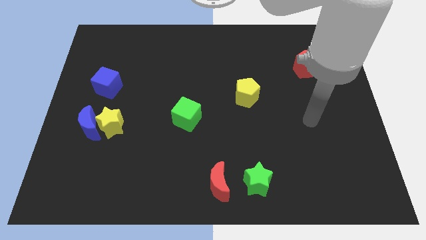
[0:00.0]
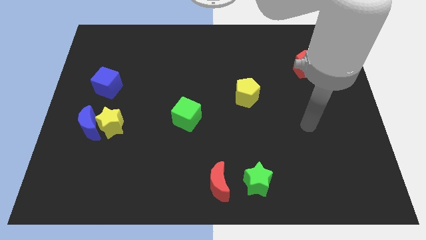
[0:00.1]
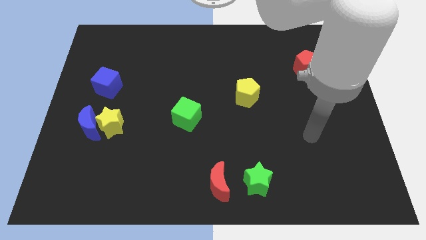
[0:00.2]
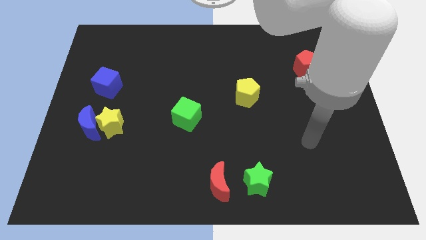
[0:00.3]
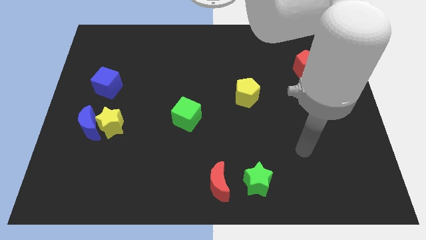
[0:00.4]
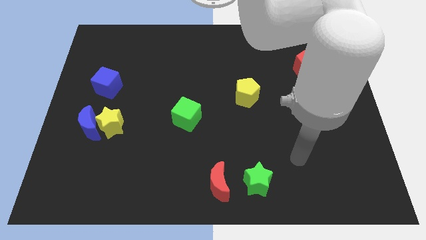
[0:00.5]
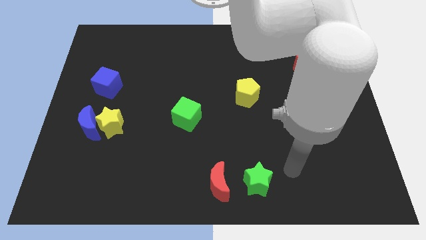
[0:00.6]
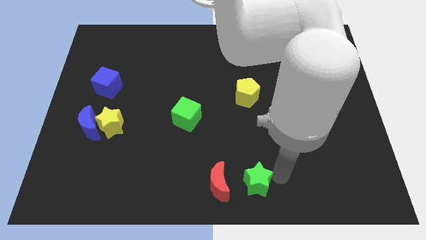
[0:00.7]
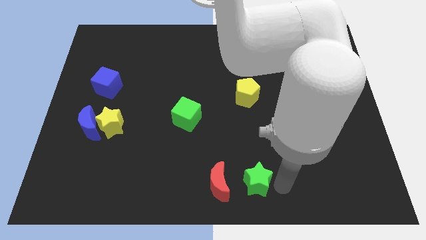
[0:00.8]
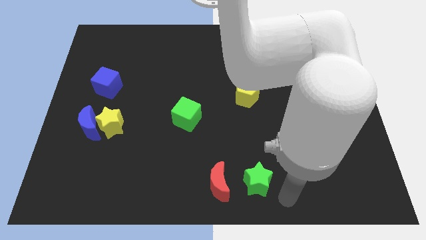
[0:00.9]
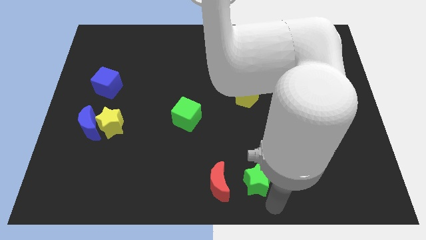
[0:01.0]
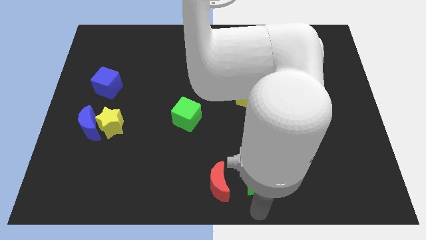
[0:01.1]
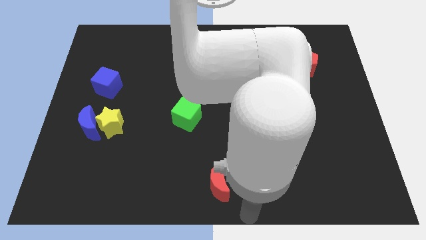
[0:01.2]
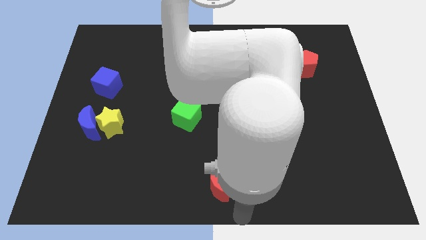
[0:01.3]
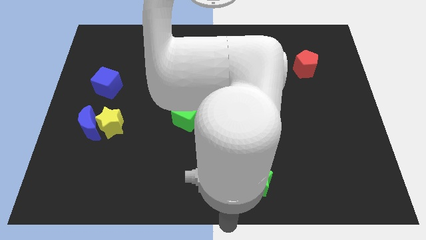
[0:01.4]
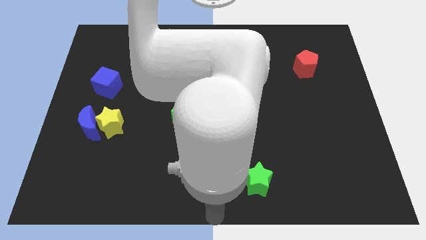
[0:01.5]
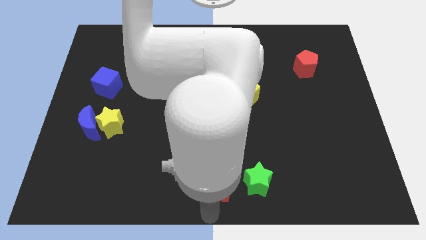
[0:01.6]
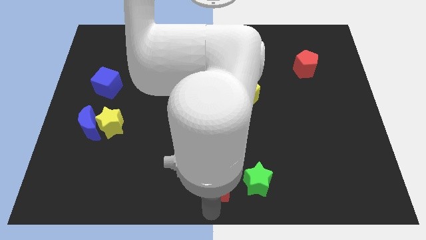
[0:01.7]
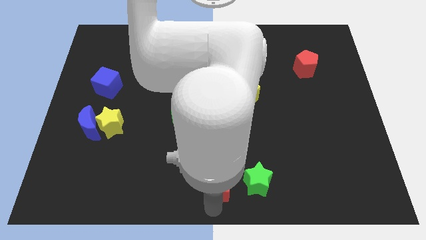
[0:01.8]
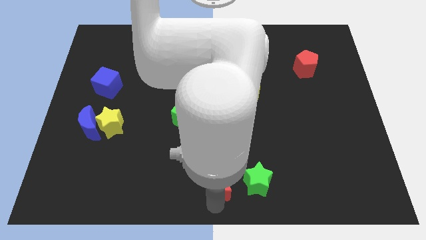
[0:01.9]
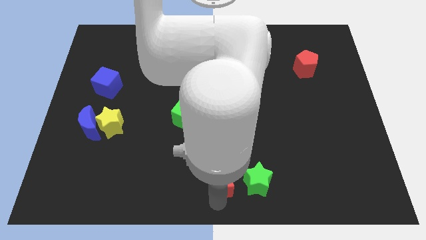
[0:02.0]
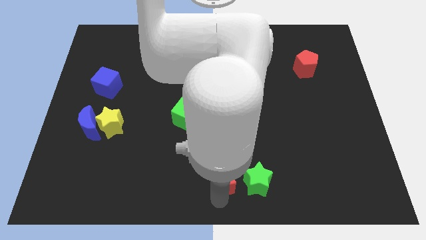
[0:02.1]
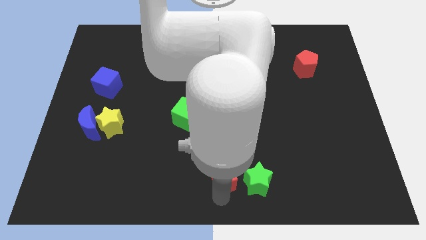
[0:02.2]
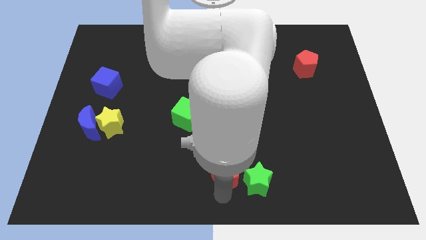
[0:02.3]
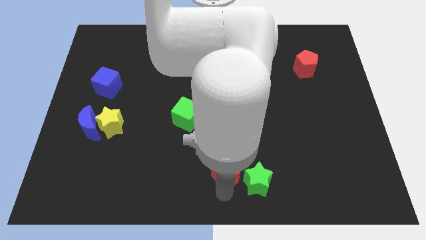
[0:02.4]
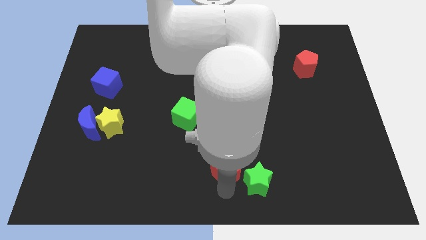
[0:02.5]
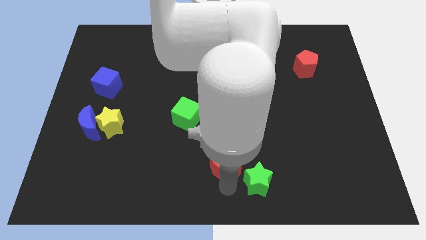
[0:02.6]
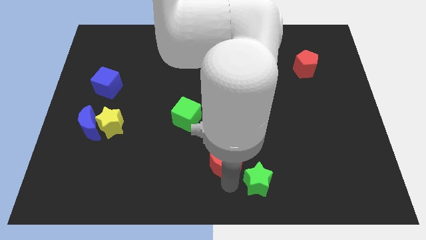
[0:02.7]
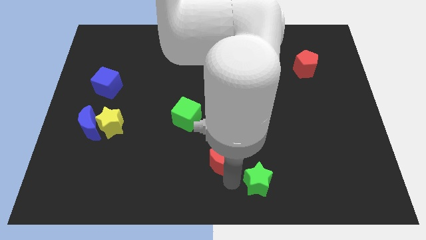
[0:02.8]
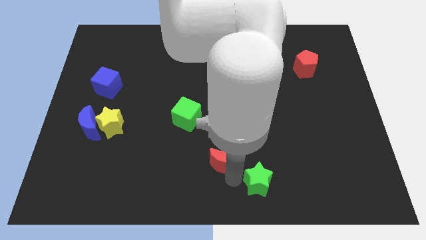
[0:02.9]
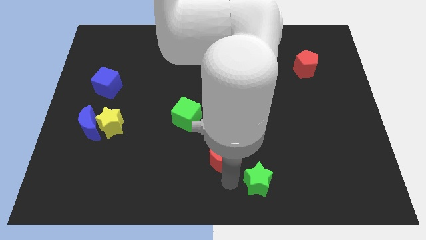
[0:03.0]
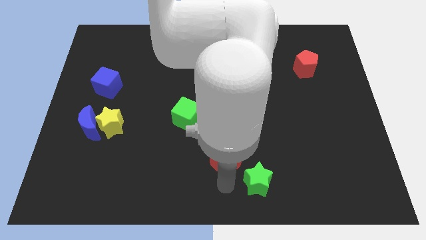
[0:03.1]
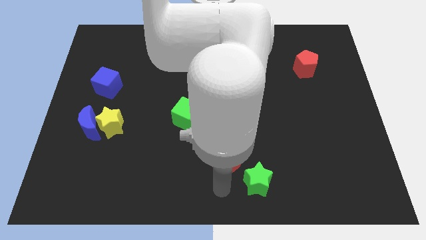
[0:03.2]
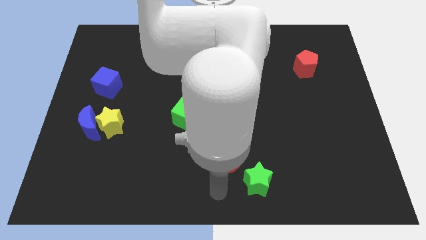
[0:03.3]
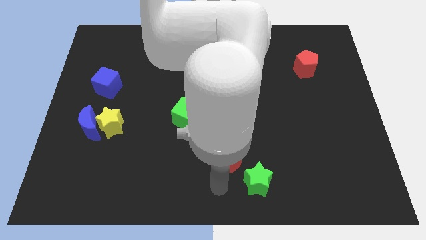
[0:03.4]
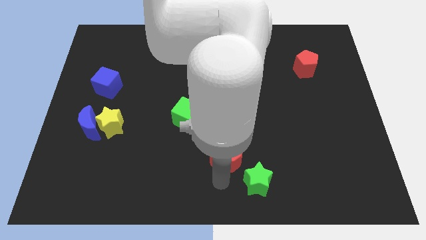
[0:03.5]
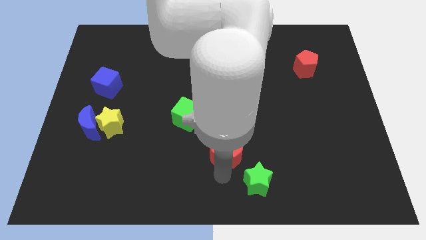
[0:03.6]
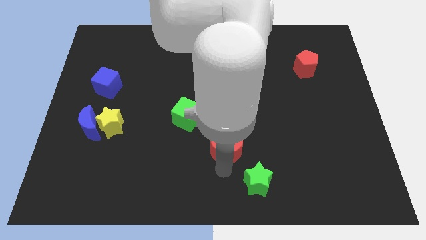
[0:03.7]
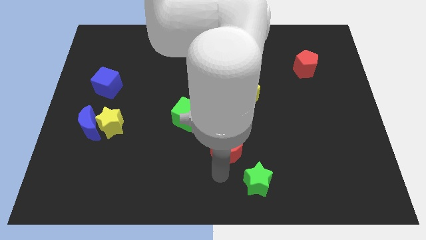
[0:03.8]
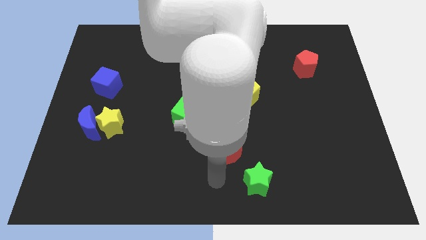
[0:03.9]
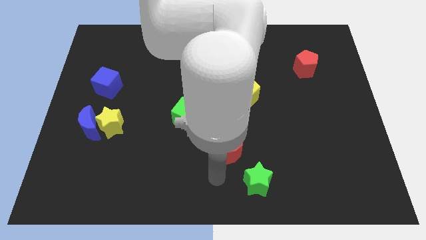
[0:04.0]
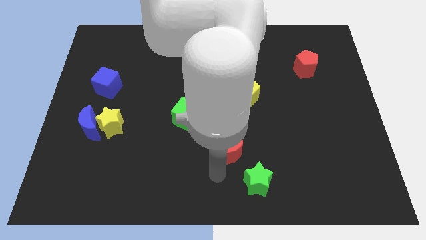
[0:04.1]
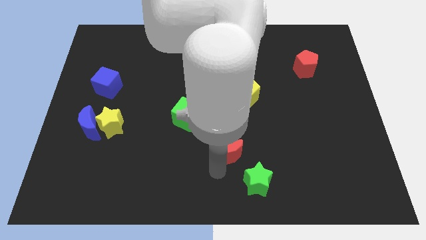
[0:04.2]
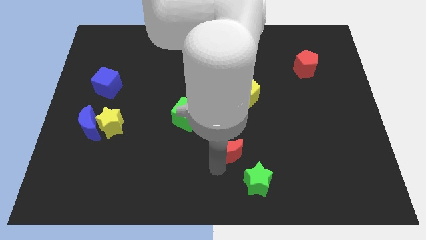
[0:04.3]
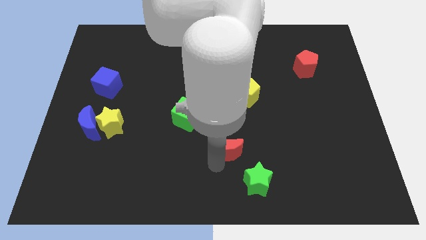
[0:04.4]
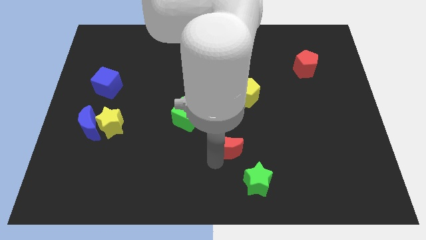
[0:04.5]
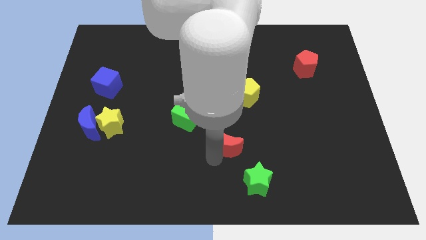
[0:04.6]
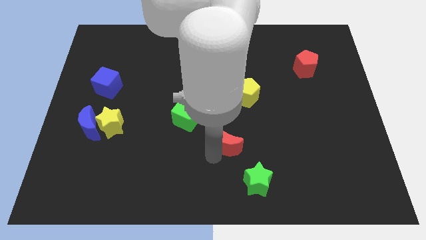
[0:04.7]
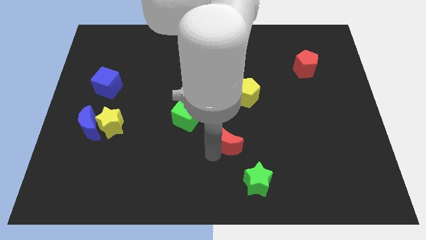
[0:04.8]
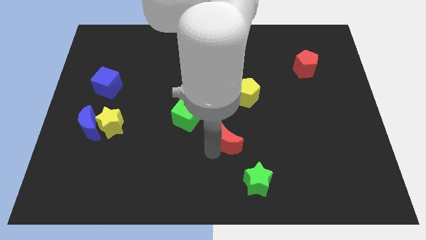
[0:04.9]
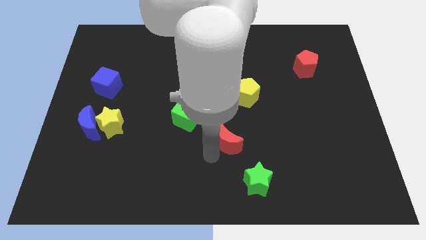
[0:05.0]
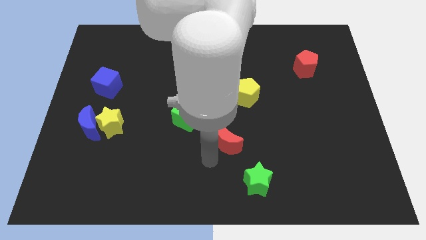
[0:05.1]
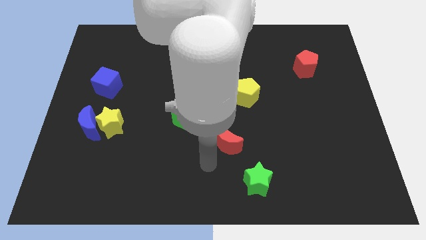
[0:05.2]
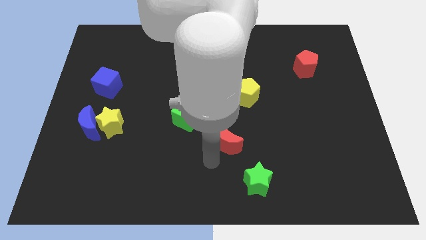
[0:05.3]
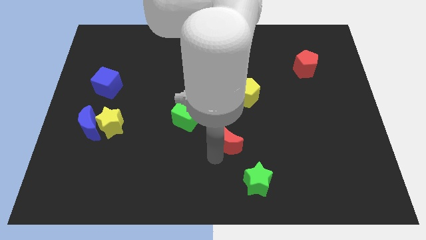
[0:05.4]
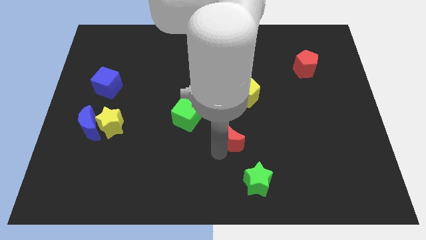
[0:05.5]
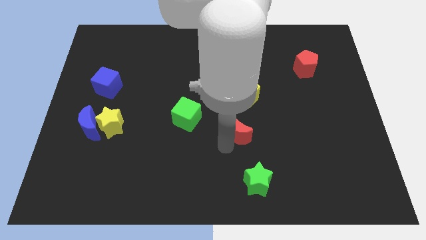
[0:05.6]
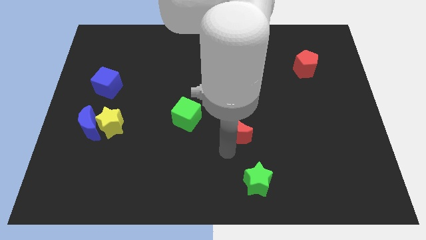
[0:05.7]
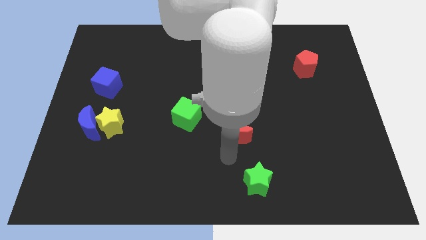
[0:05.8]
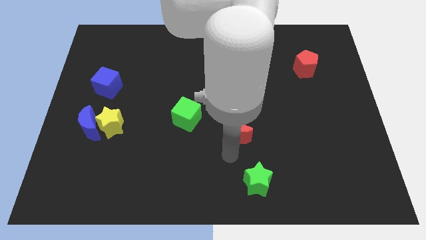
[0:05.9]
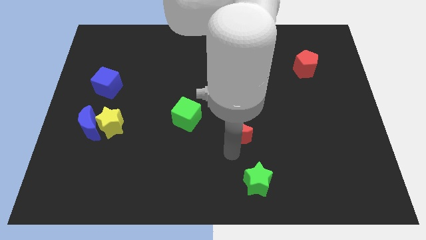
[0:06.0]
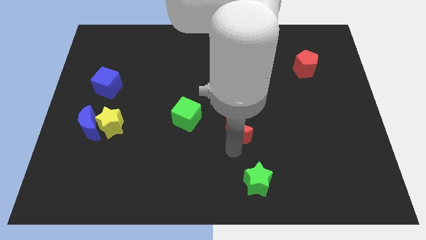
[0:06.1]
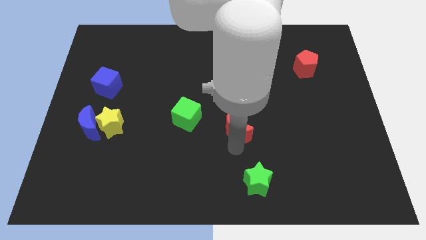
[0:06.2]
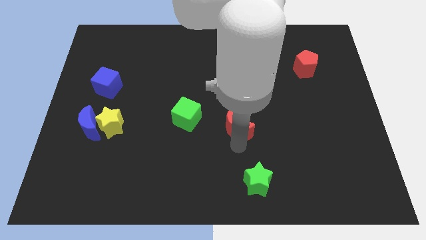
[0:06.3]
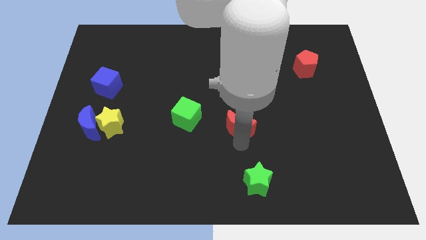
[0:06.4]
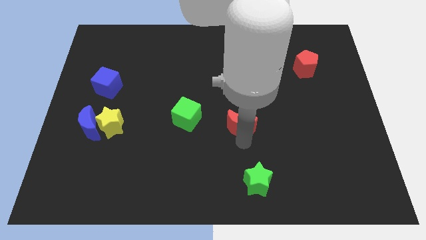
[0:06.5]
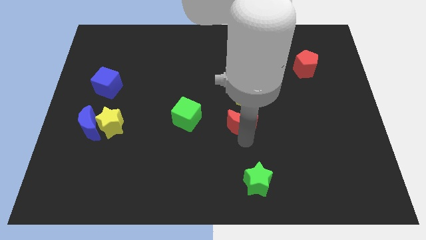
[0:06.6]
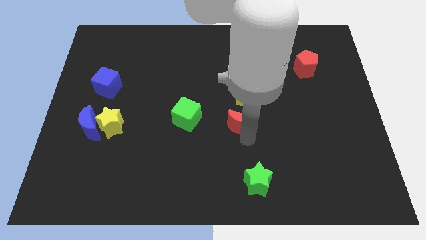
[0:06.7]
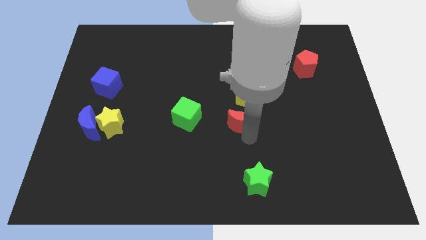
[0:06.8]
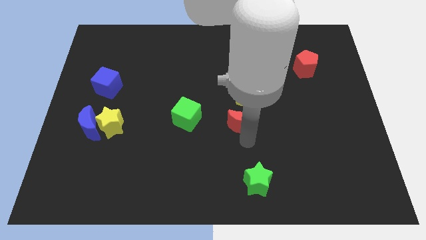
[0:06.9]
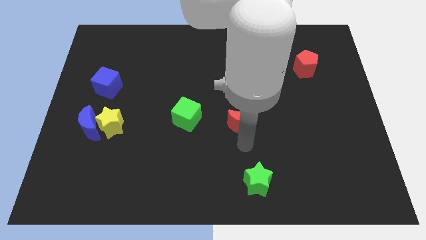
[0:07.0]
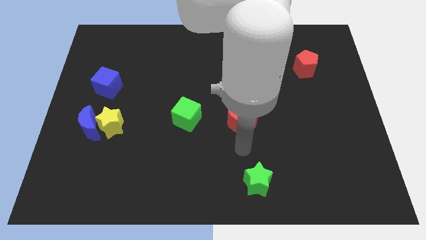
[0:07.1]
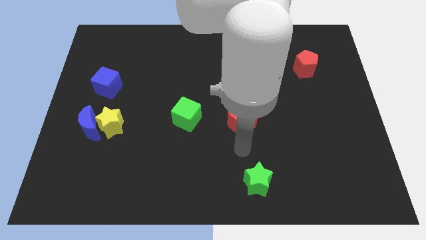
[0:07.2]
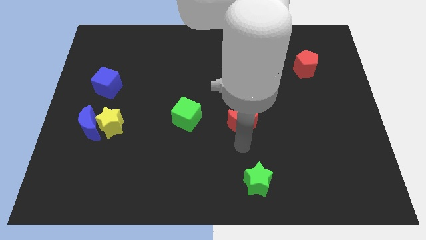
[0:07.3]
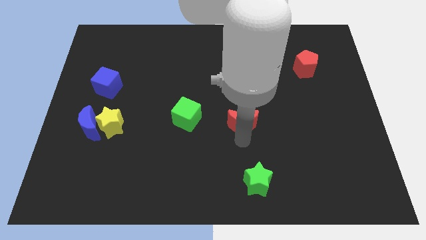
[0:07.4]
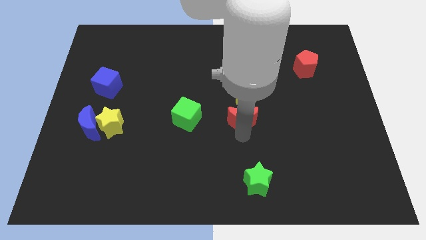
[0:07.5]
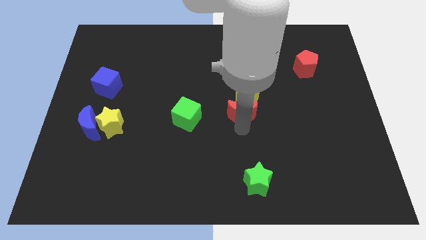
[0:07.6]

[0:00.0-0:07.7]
put the red moon towards the yellow pentagon
